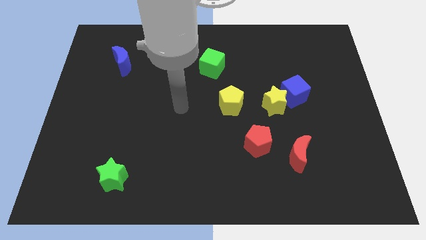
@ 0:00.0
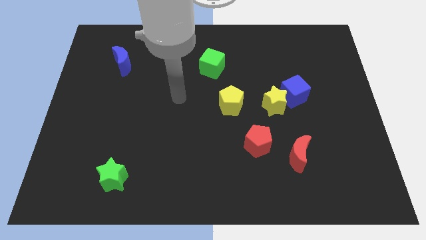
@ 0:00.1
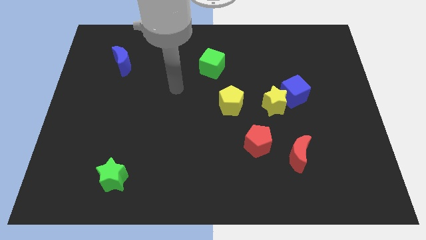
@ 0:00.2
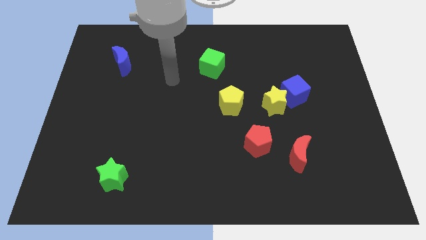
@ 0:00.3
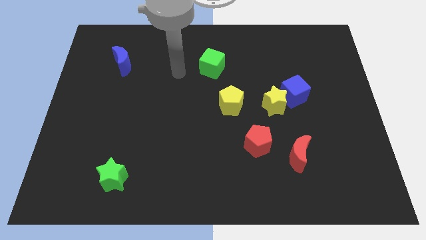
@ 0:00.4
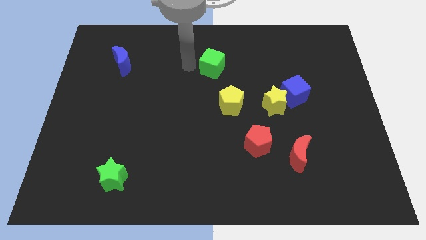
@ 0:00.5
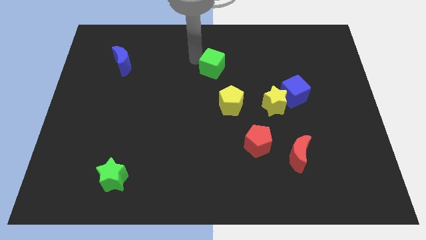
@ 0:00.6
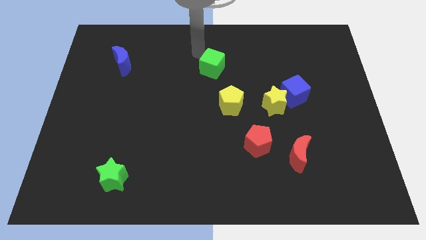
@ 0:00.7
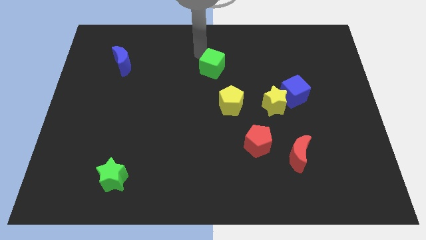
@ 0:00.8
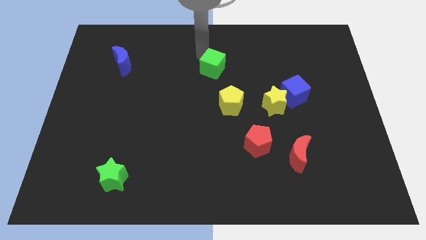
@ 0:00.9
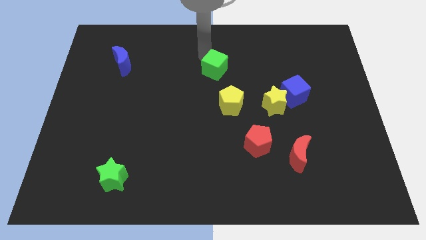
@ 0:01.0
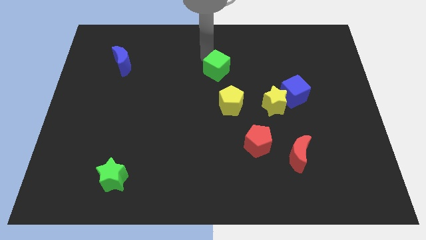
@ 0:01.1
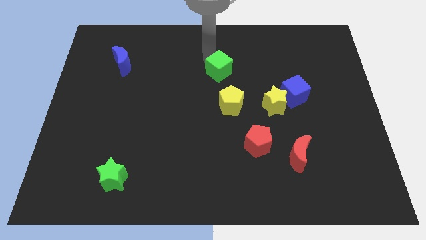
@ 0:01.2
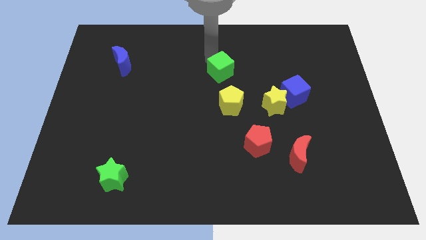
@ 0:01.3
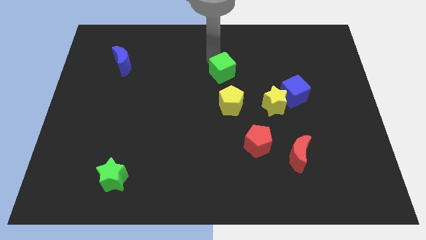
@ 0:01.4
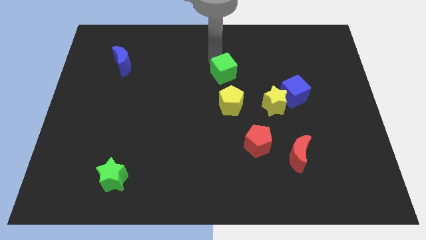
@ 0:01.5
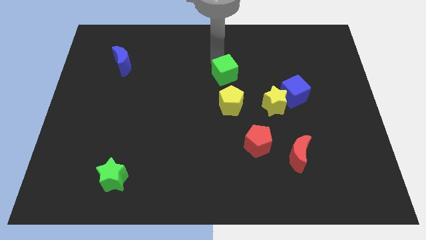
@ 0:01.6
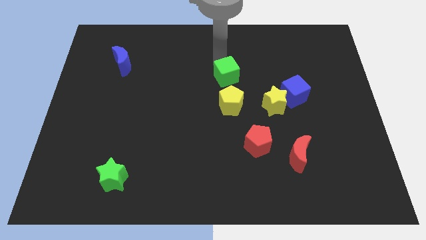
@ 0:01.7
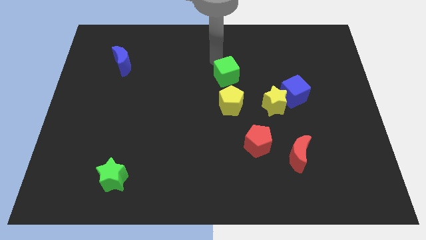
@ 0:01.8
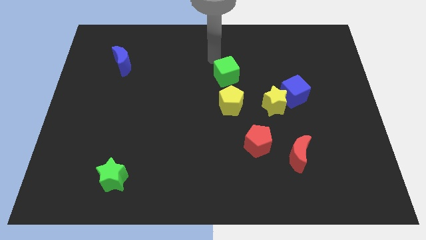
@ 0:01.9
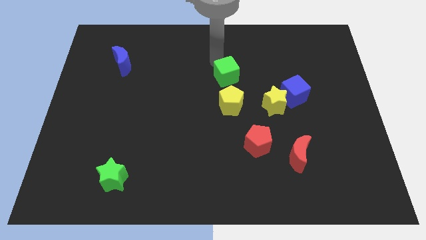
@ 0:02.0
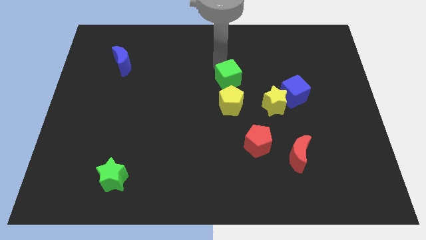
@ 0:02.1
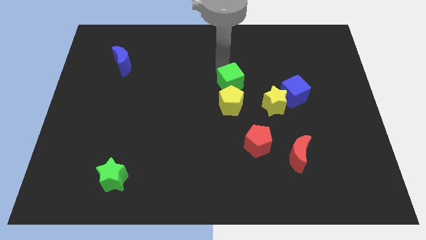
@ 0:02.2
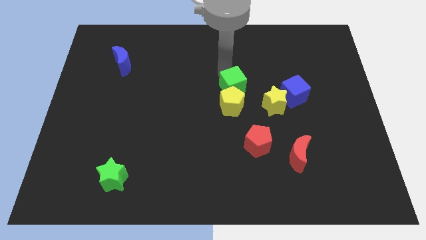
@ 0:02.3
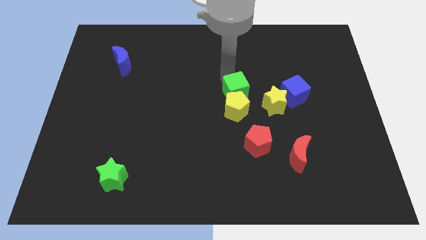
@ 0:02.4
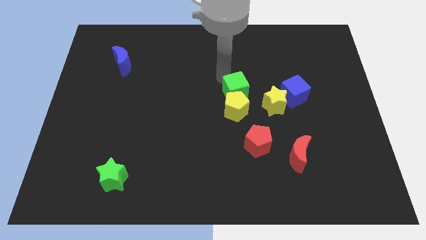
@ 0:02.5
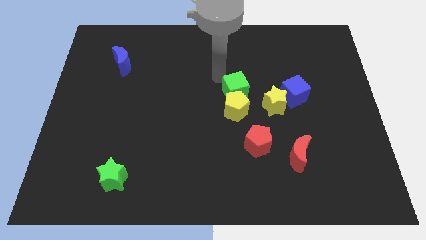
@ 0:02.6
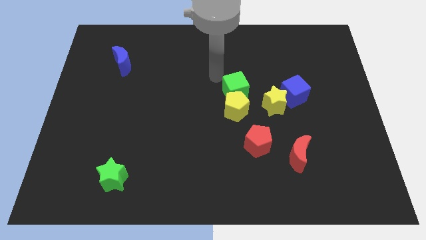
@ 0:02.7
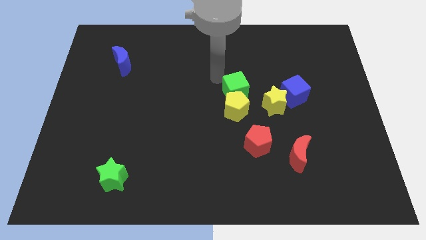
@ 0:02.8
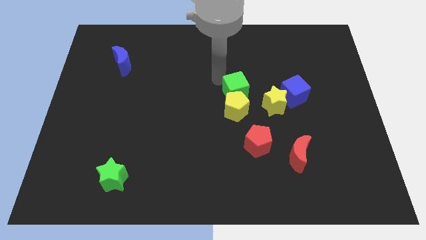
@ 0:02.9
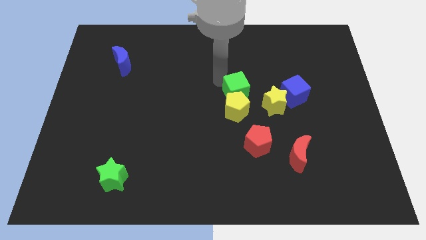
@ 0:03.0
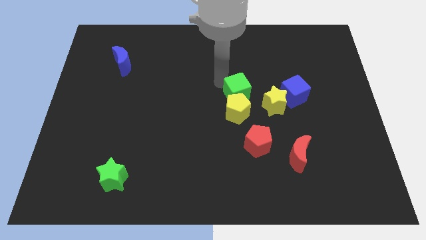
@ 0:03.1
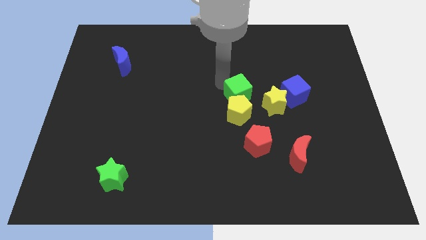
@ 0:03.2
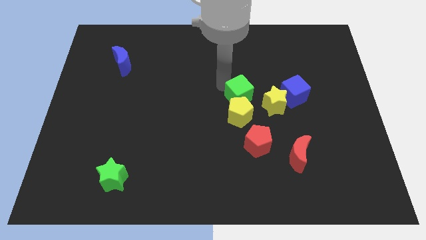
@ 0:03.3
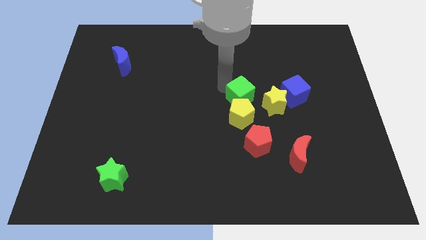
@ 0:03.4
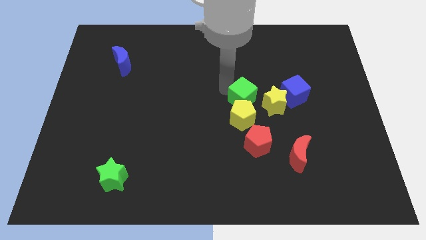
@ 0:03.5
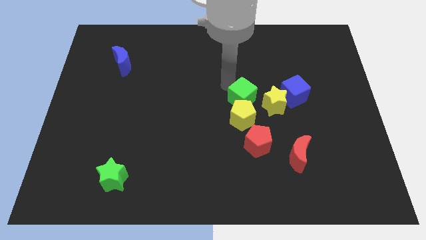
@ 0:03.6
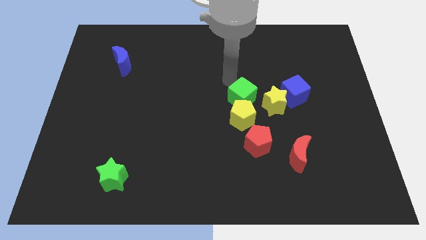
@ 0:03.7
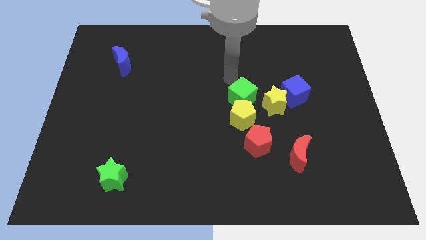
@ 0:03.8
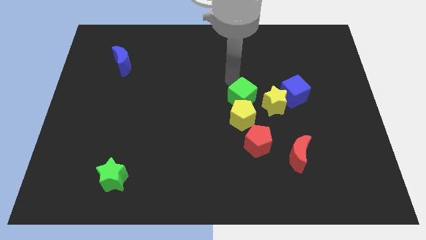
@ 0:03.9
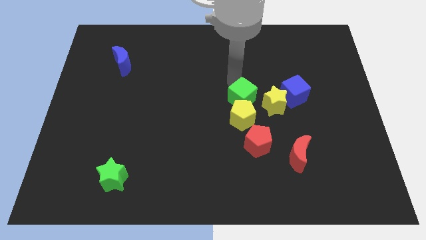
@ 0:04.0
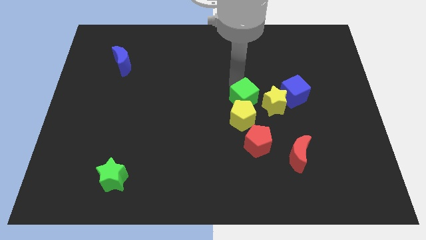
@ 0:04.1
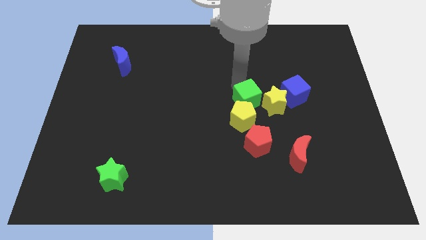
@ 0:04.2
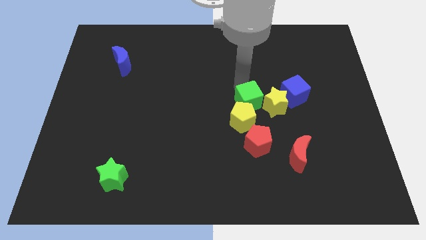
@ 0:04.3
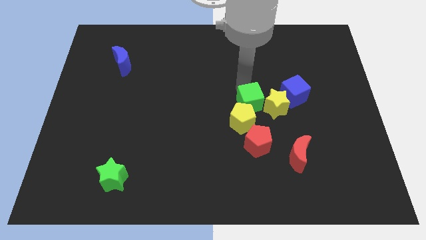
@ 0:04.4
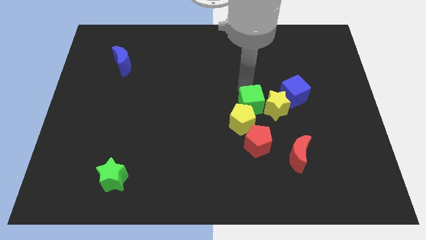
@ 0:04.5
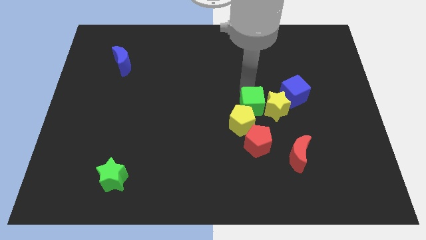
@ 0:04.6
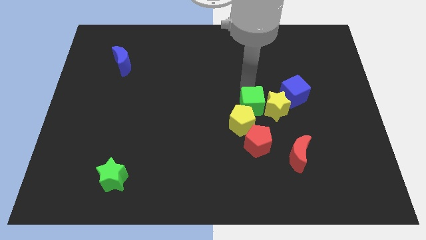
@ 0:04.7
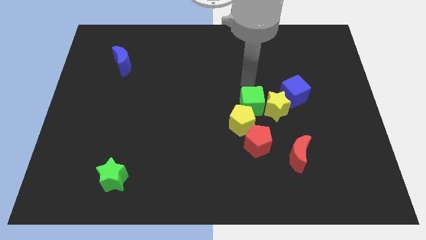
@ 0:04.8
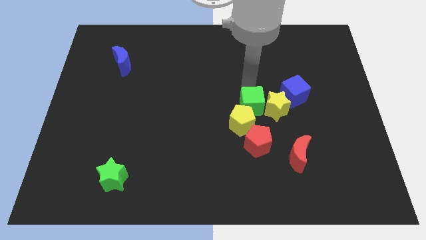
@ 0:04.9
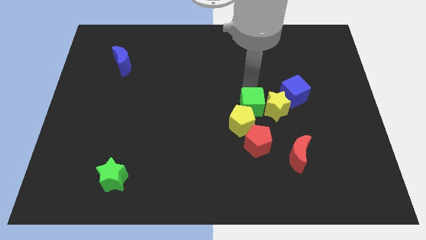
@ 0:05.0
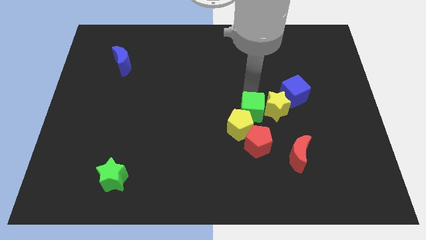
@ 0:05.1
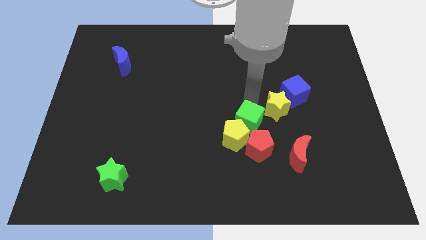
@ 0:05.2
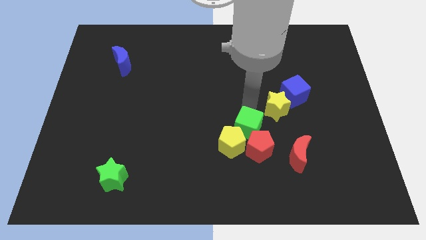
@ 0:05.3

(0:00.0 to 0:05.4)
slide the green cube to the red pentagon

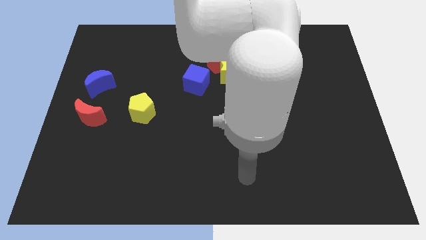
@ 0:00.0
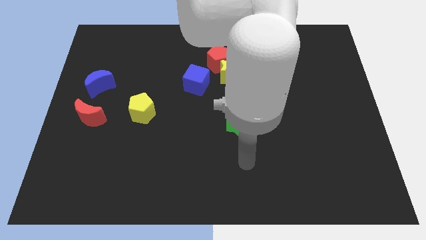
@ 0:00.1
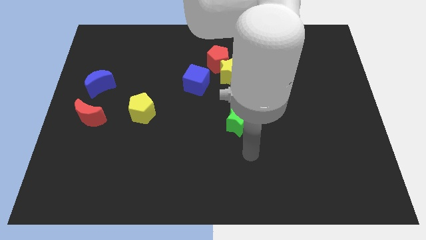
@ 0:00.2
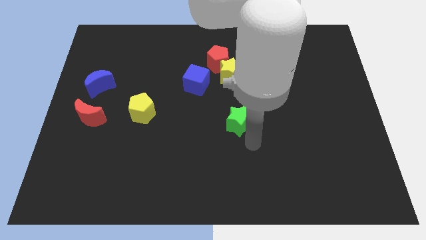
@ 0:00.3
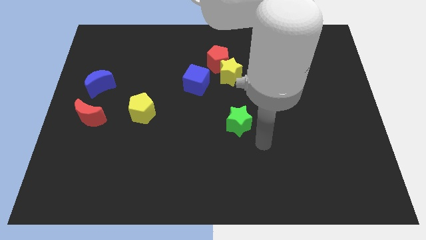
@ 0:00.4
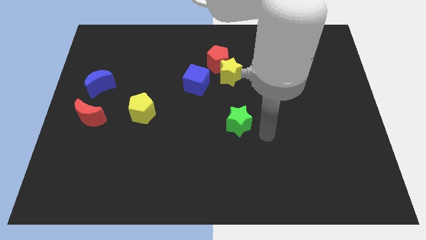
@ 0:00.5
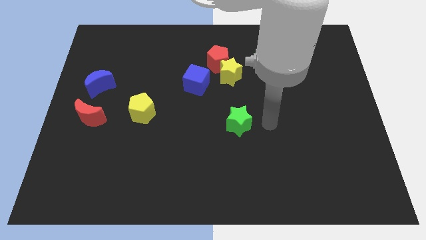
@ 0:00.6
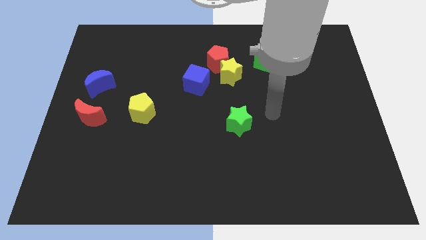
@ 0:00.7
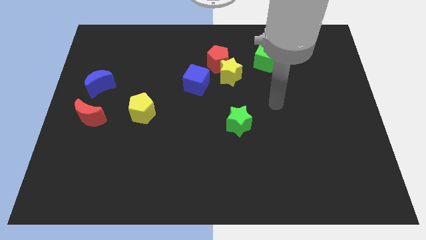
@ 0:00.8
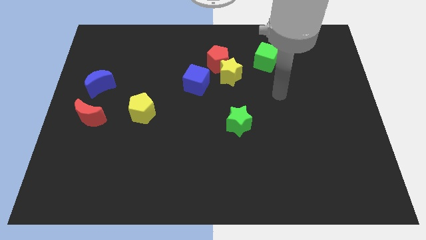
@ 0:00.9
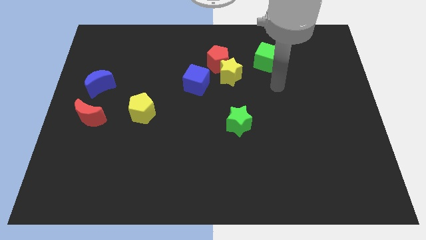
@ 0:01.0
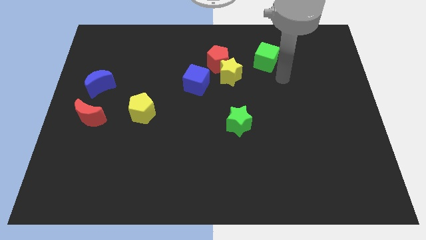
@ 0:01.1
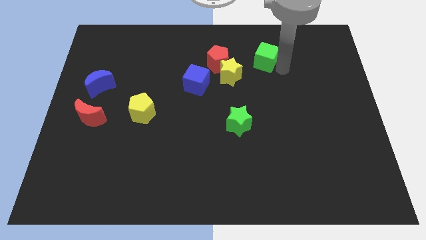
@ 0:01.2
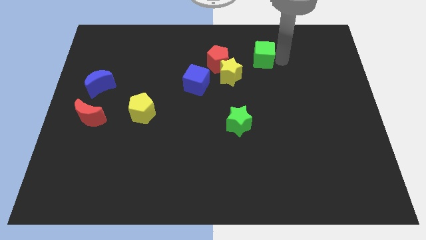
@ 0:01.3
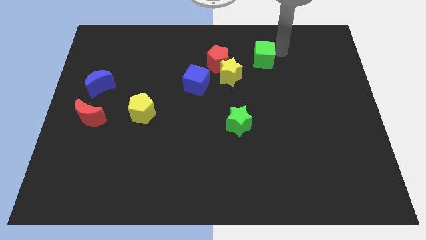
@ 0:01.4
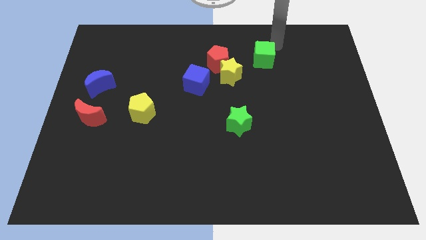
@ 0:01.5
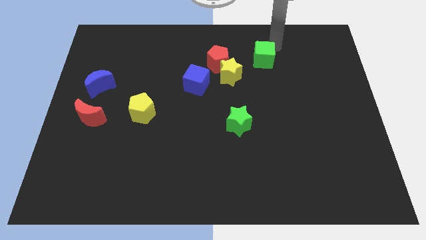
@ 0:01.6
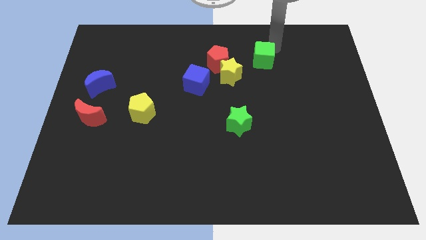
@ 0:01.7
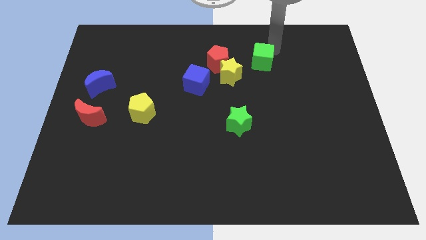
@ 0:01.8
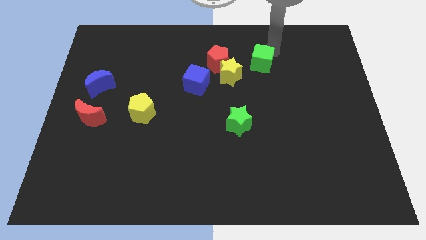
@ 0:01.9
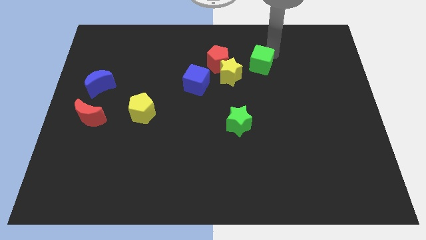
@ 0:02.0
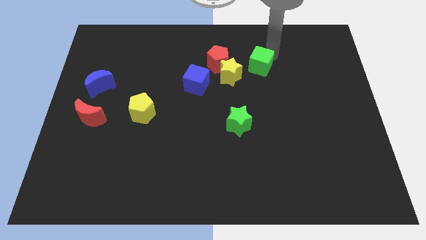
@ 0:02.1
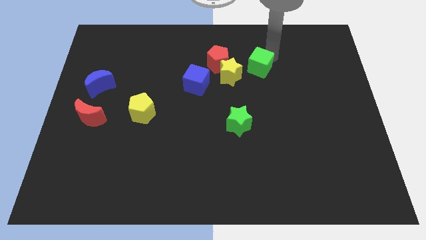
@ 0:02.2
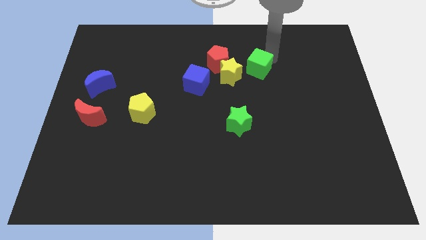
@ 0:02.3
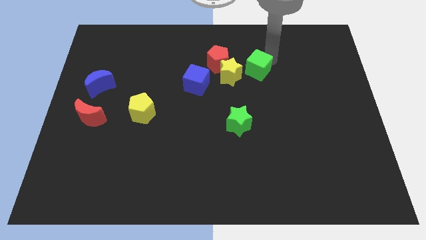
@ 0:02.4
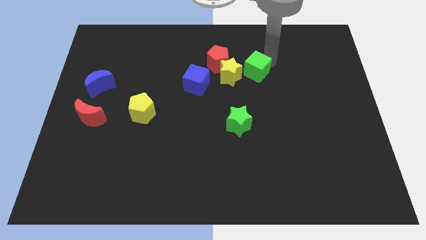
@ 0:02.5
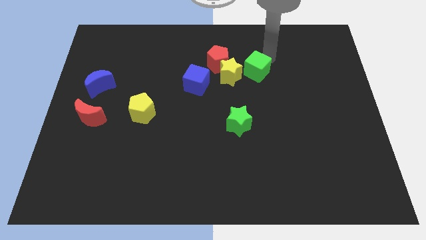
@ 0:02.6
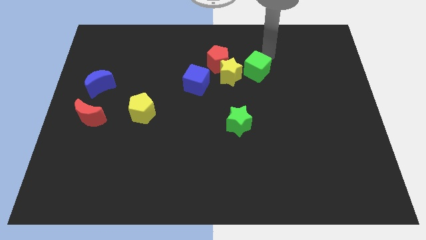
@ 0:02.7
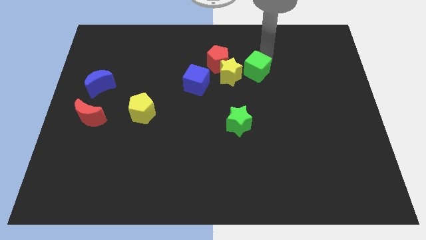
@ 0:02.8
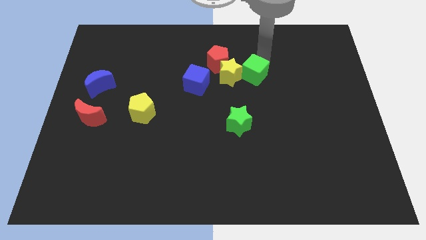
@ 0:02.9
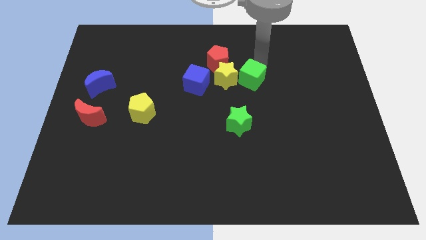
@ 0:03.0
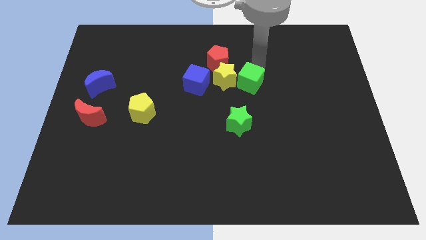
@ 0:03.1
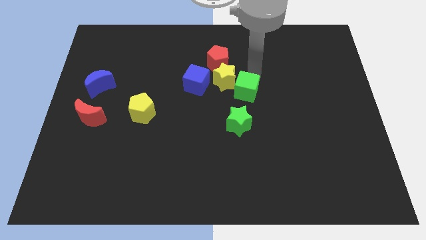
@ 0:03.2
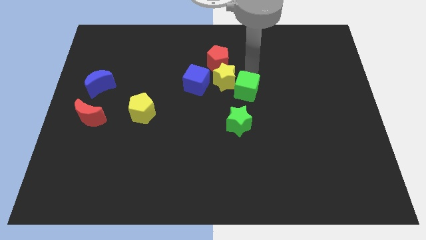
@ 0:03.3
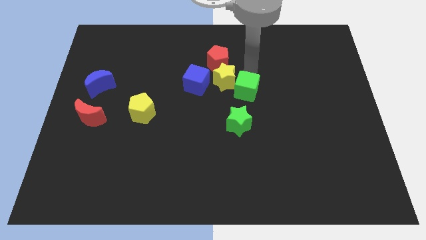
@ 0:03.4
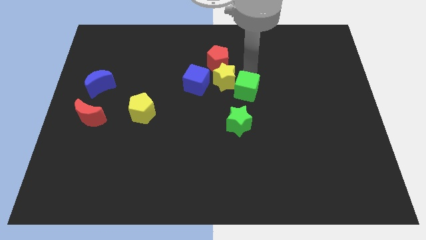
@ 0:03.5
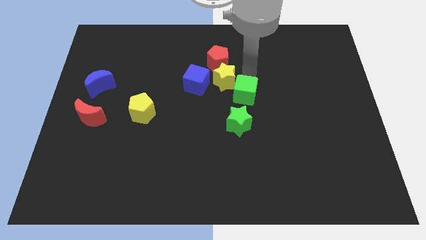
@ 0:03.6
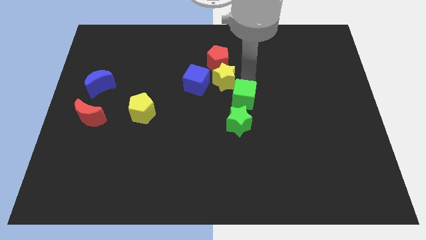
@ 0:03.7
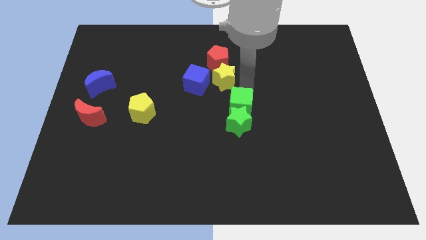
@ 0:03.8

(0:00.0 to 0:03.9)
slide the green cube towards the green star
